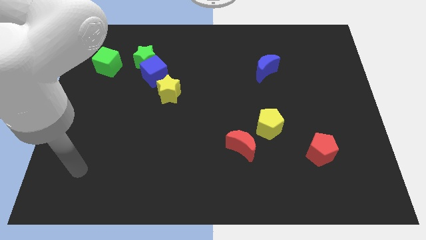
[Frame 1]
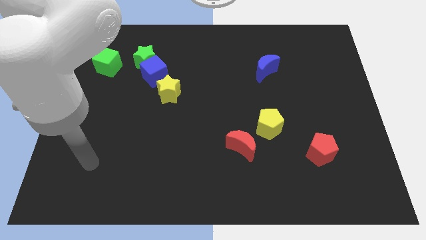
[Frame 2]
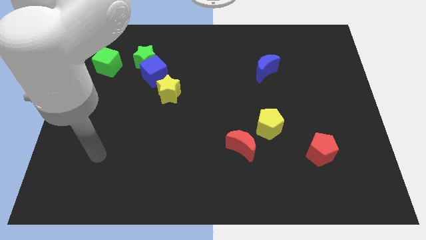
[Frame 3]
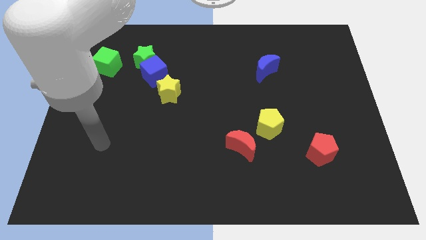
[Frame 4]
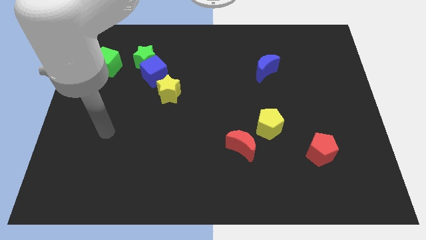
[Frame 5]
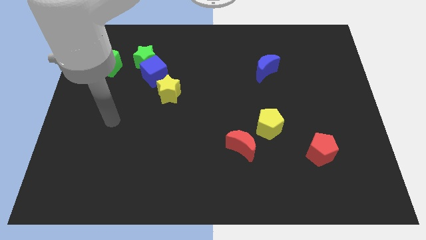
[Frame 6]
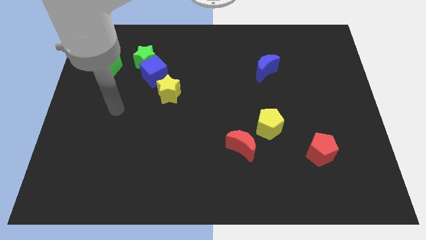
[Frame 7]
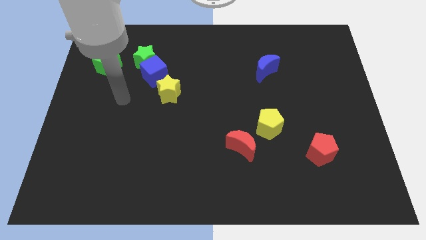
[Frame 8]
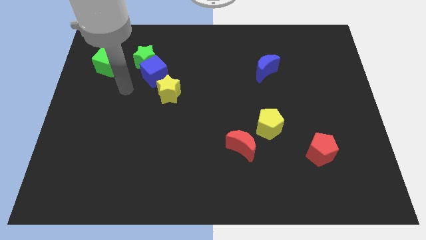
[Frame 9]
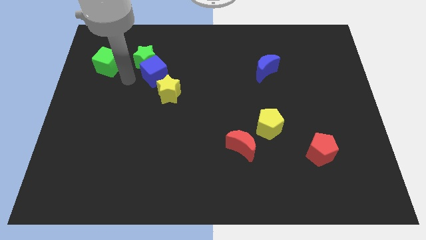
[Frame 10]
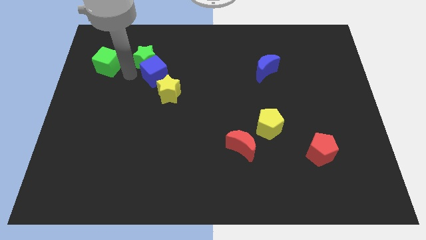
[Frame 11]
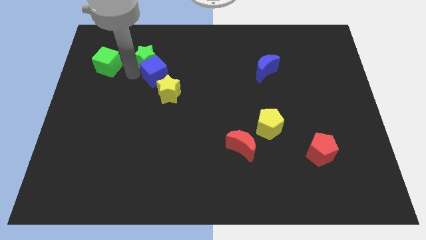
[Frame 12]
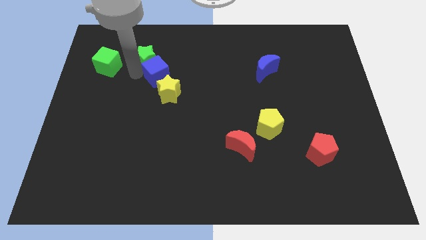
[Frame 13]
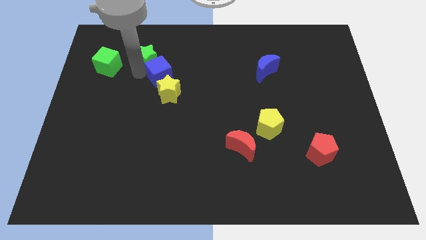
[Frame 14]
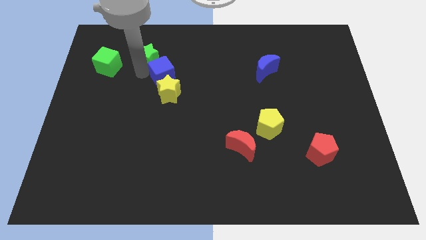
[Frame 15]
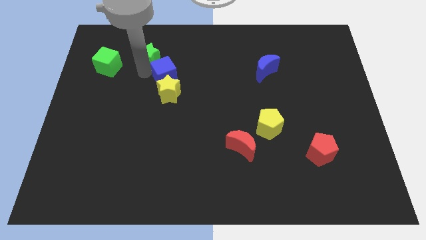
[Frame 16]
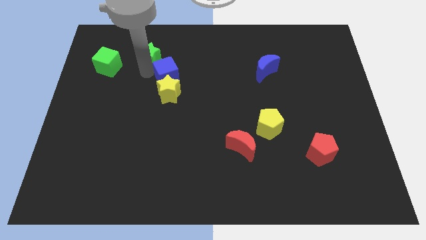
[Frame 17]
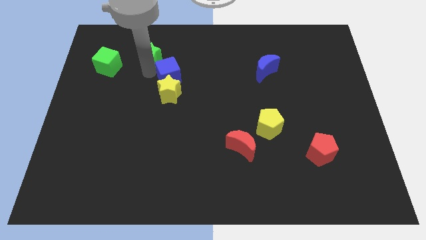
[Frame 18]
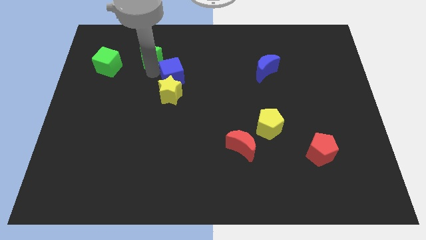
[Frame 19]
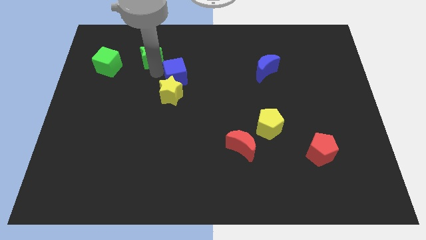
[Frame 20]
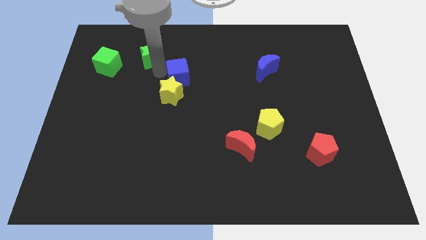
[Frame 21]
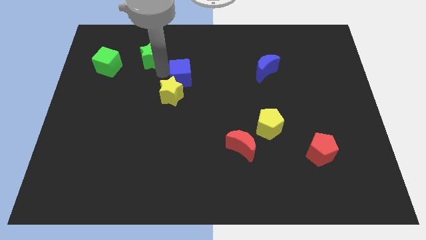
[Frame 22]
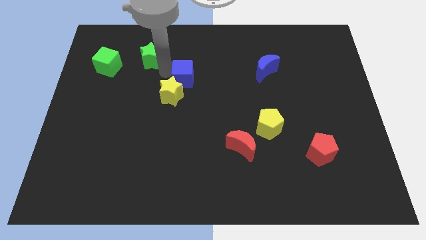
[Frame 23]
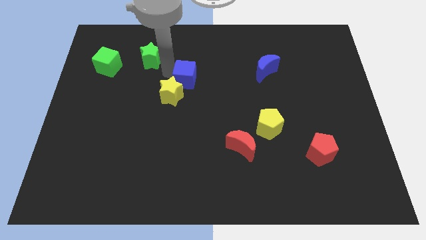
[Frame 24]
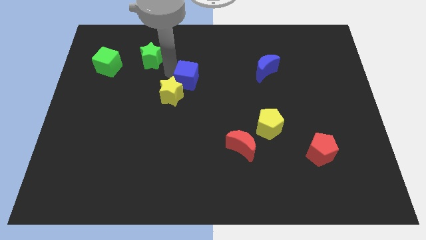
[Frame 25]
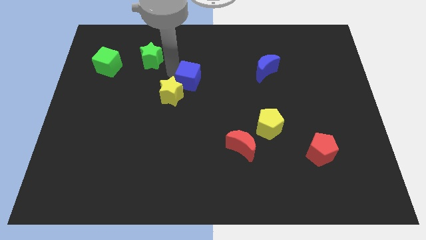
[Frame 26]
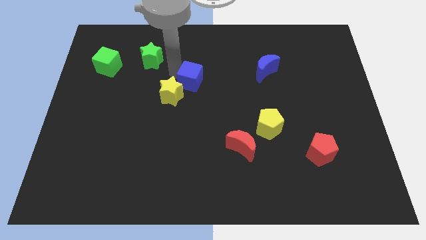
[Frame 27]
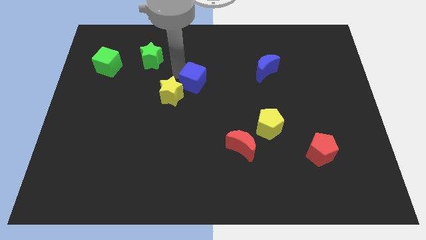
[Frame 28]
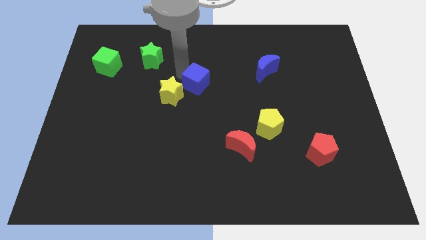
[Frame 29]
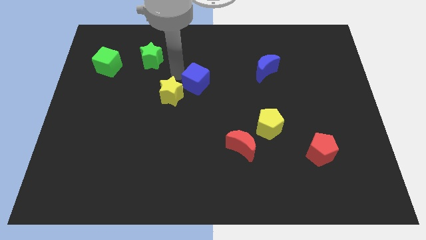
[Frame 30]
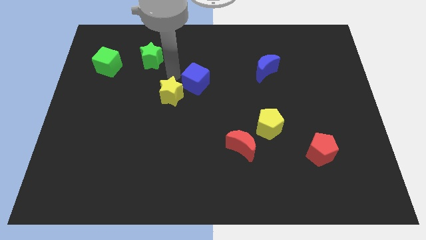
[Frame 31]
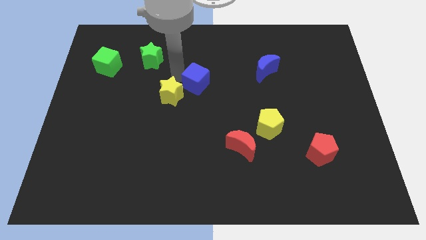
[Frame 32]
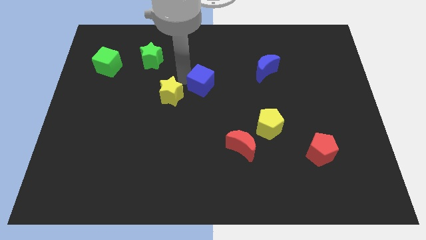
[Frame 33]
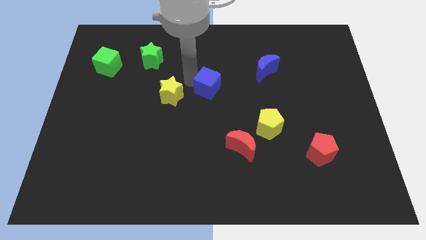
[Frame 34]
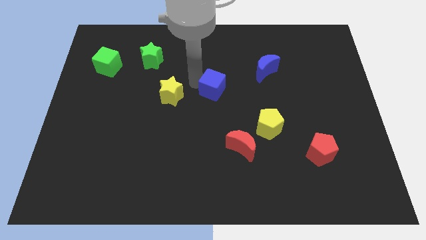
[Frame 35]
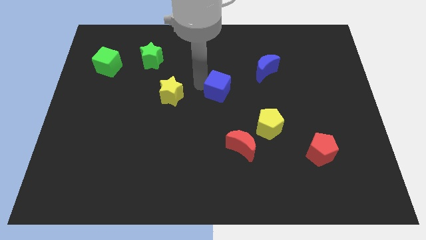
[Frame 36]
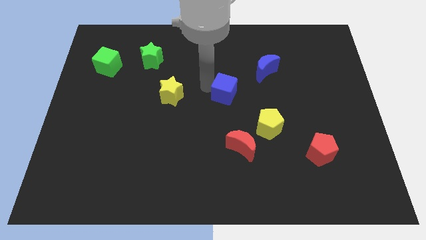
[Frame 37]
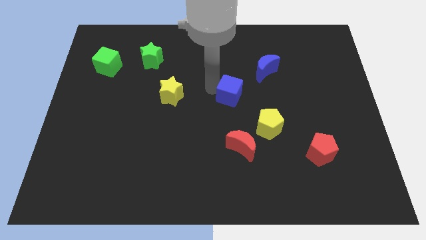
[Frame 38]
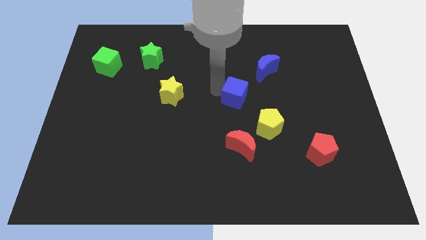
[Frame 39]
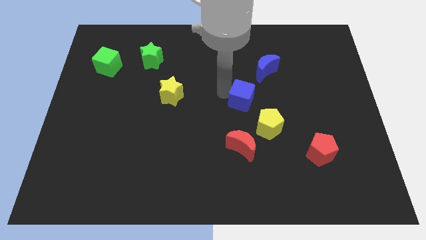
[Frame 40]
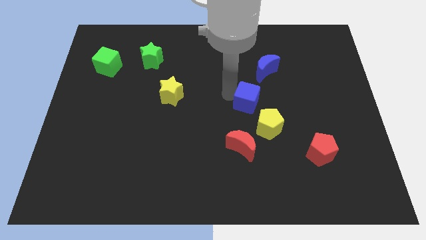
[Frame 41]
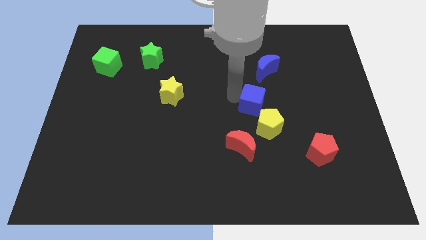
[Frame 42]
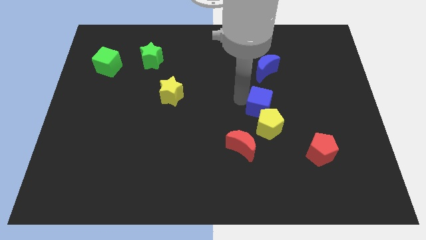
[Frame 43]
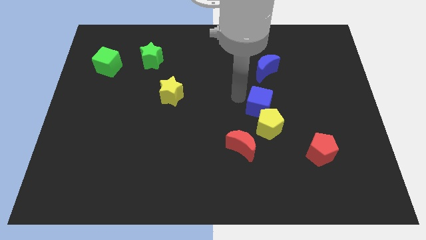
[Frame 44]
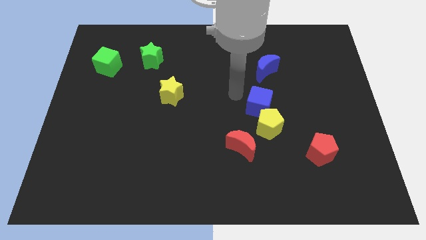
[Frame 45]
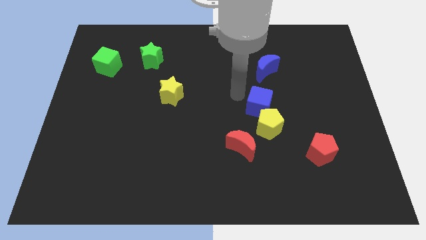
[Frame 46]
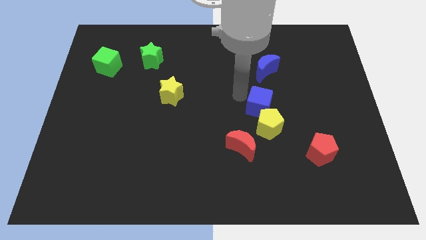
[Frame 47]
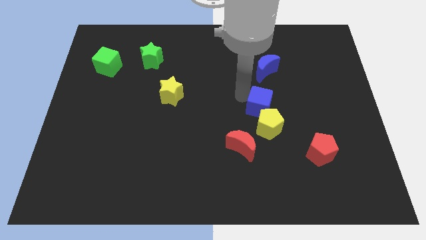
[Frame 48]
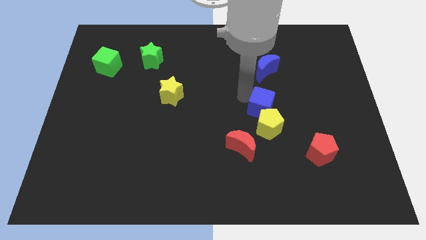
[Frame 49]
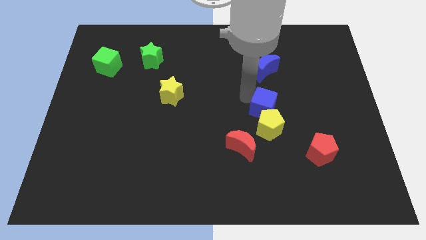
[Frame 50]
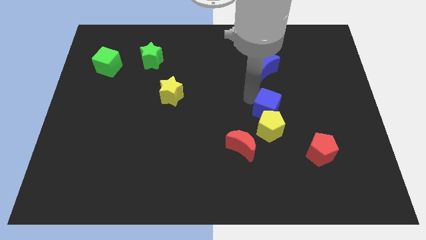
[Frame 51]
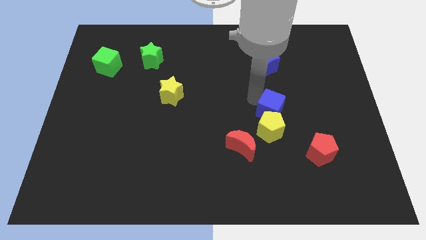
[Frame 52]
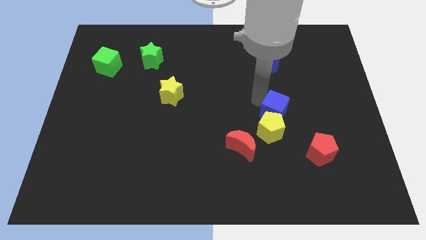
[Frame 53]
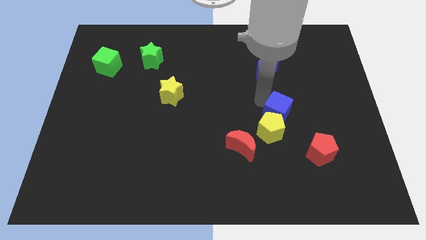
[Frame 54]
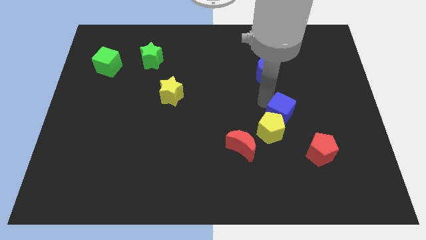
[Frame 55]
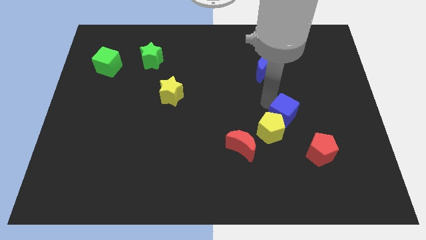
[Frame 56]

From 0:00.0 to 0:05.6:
push the blue cube diagonally up and to the left of the red pentagon

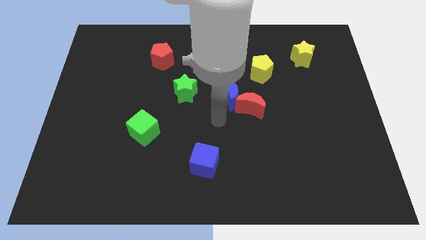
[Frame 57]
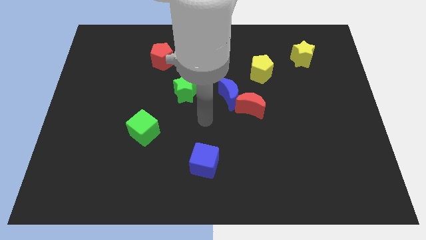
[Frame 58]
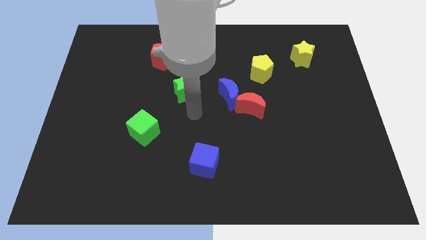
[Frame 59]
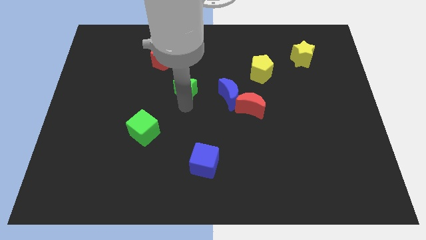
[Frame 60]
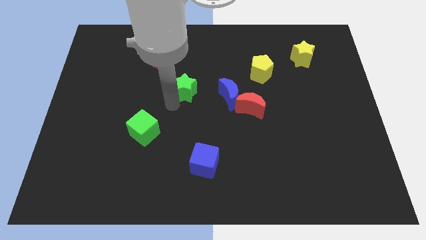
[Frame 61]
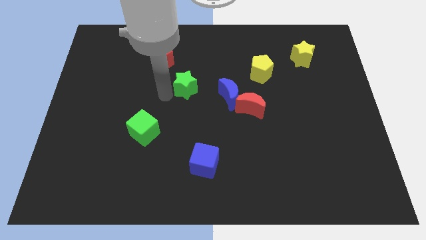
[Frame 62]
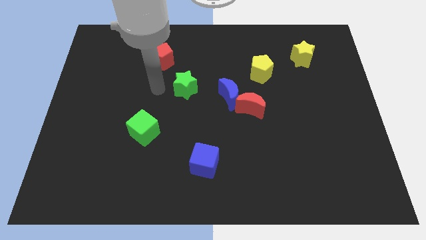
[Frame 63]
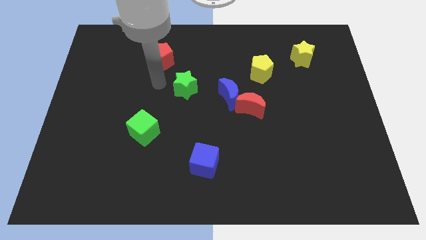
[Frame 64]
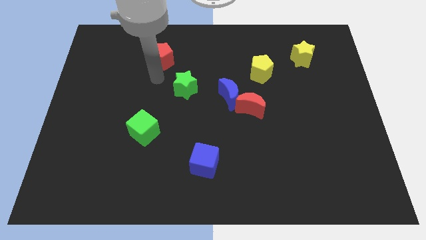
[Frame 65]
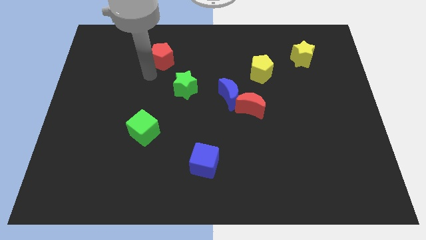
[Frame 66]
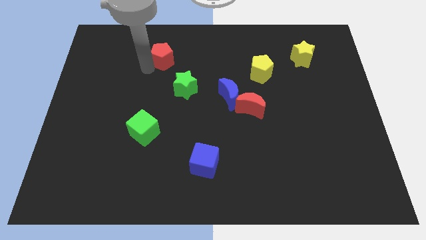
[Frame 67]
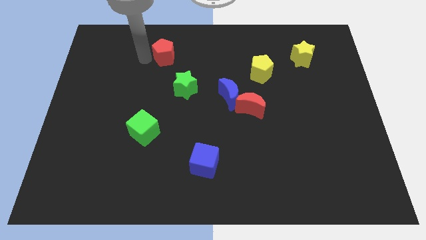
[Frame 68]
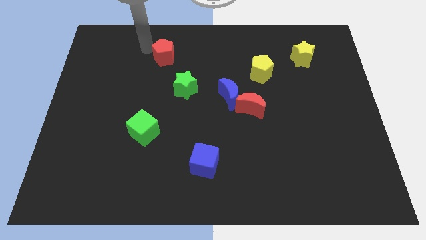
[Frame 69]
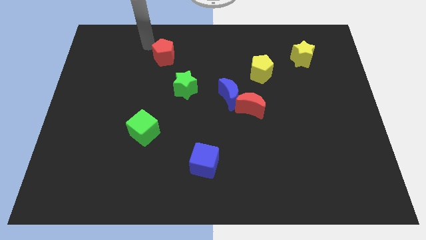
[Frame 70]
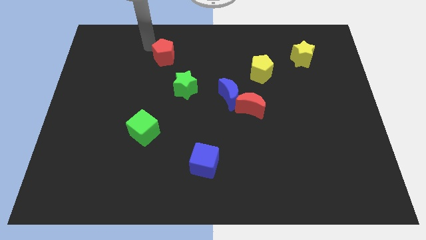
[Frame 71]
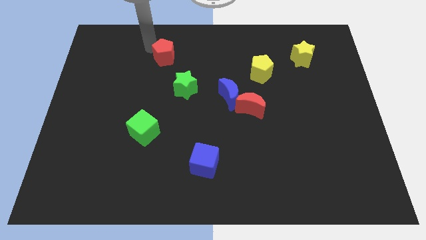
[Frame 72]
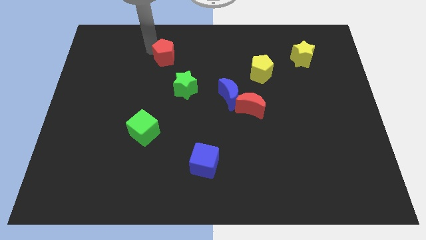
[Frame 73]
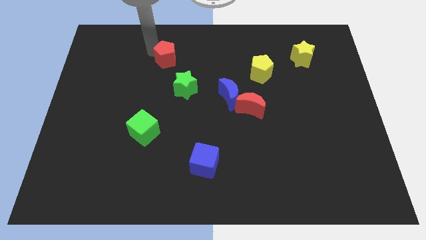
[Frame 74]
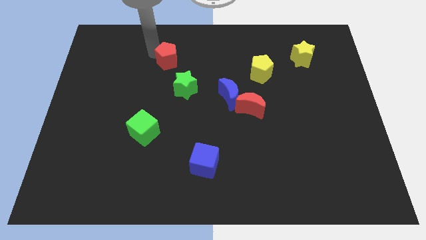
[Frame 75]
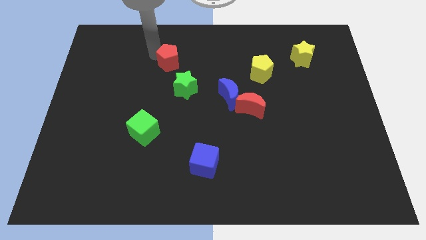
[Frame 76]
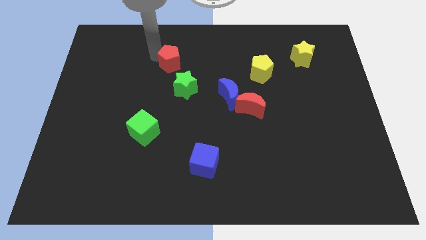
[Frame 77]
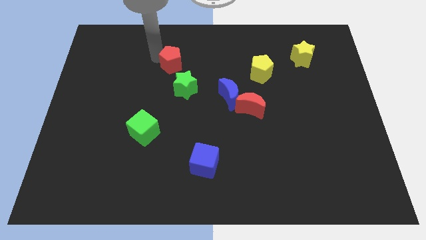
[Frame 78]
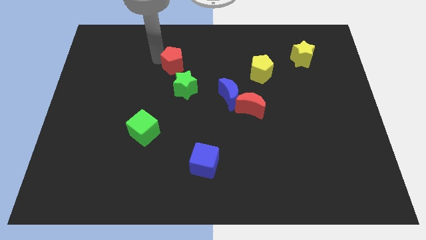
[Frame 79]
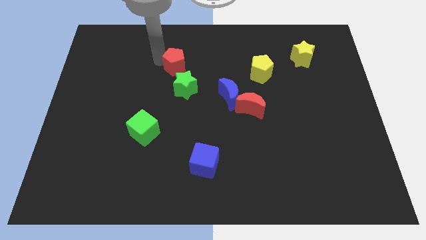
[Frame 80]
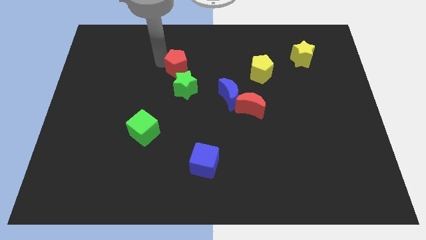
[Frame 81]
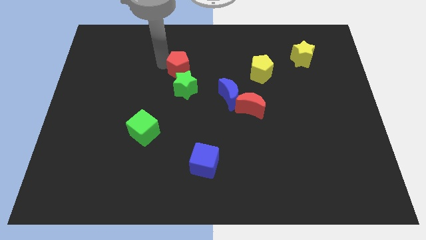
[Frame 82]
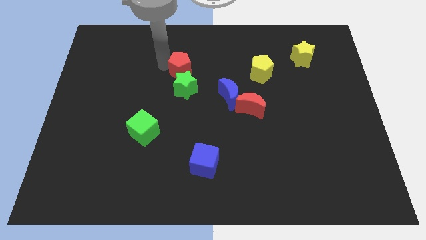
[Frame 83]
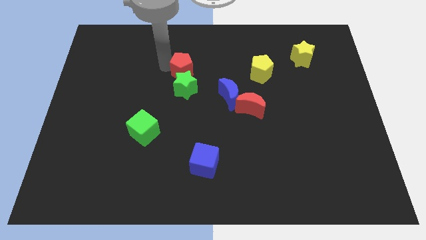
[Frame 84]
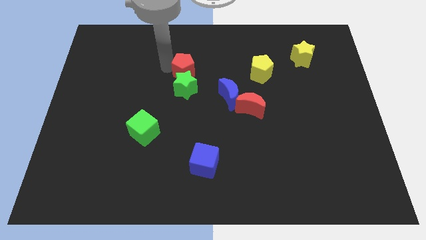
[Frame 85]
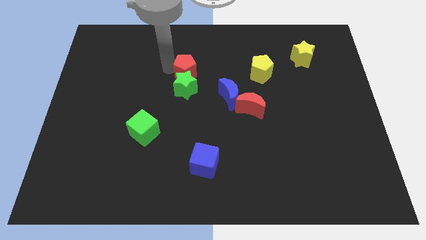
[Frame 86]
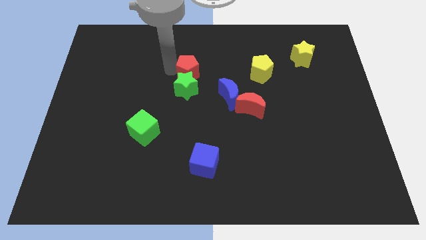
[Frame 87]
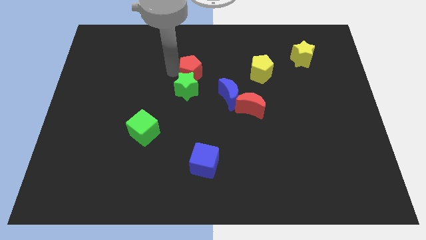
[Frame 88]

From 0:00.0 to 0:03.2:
slide the red pentagon to the top left of the blue moon
